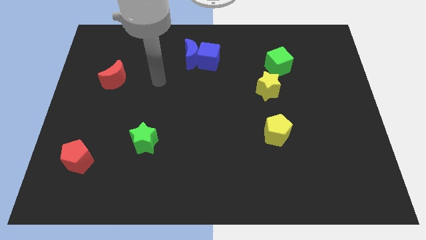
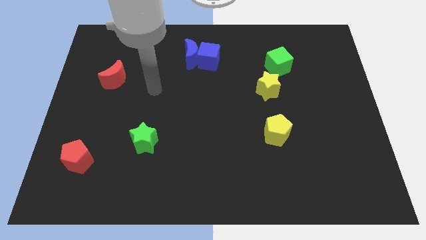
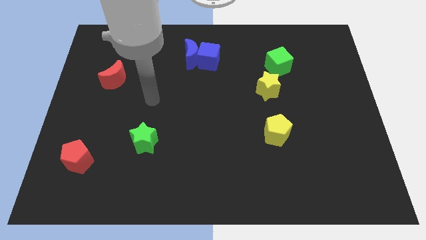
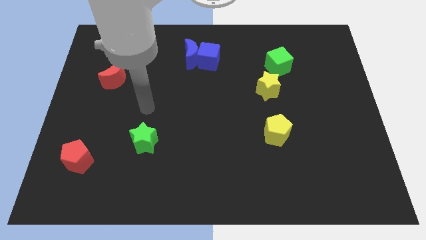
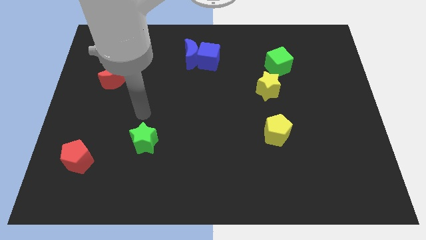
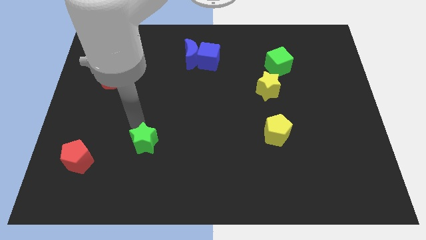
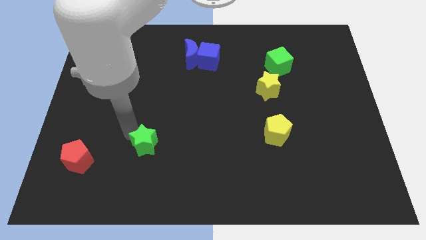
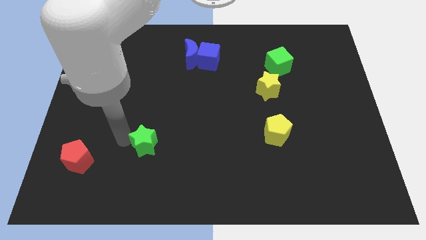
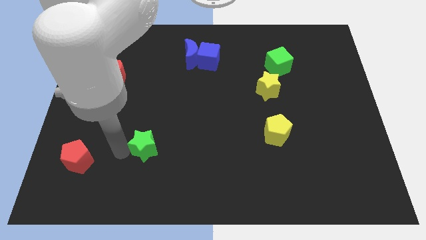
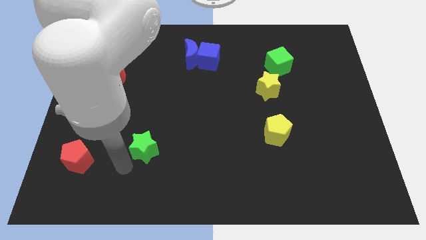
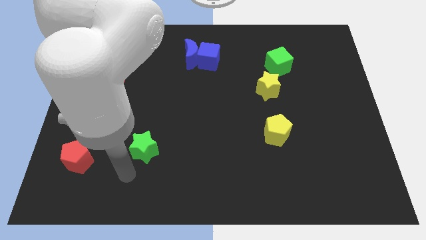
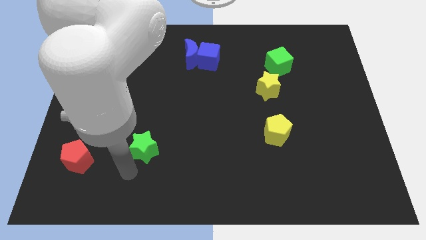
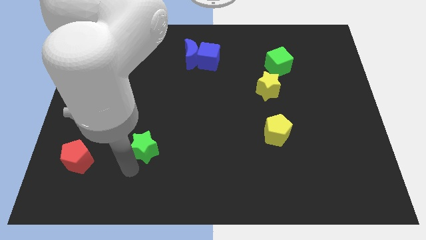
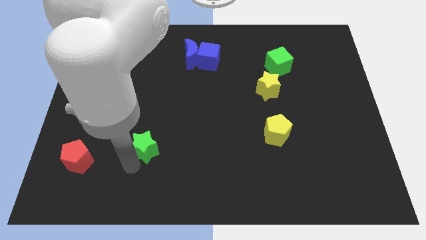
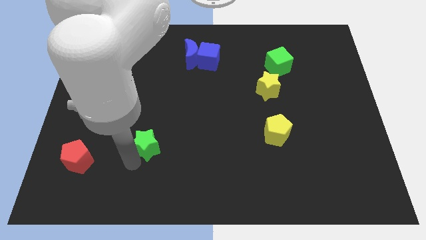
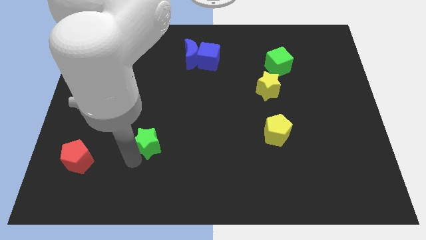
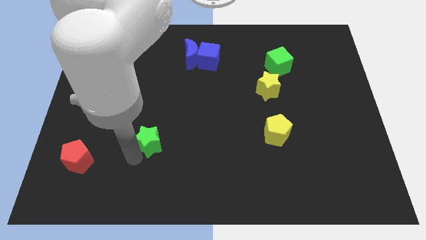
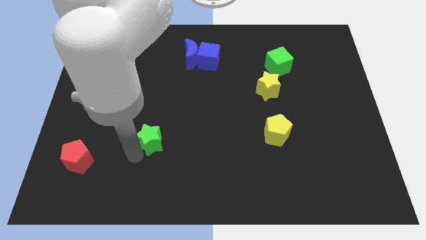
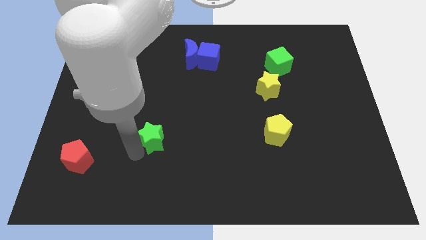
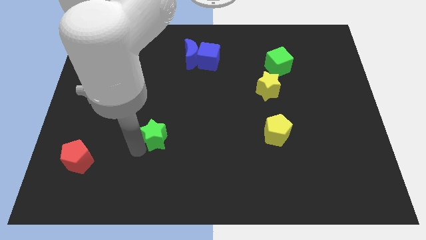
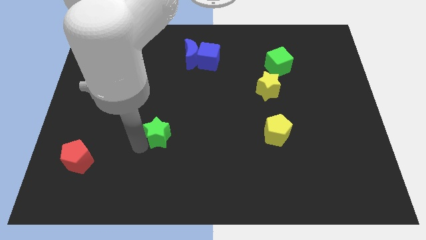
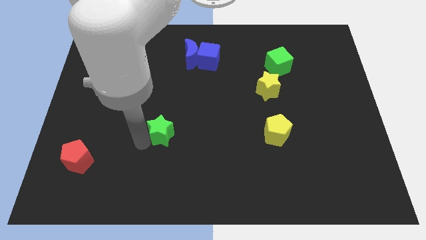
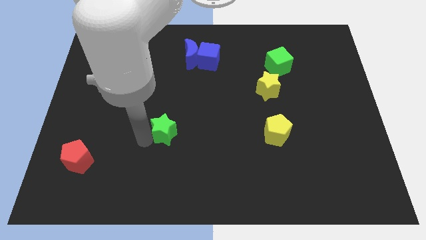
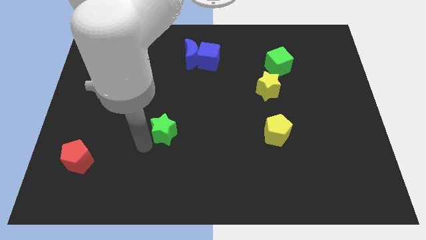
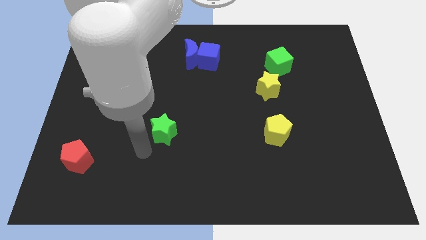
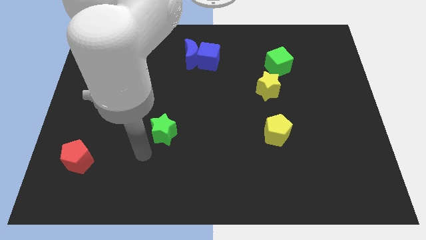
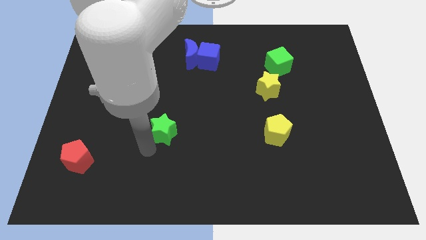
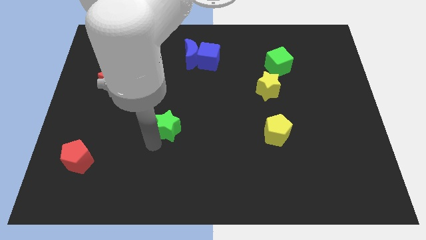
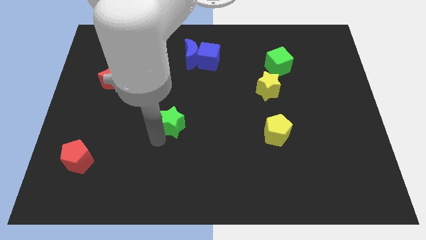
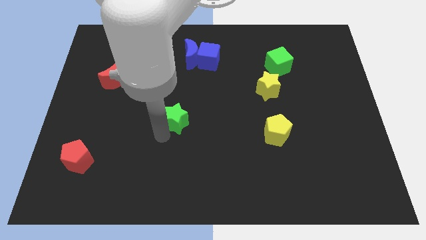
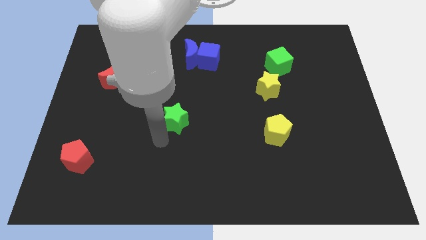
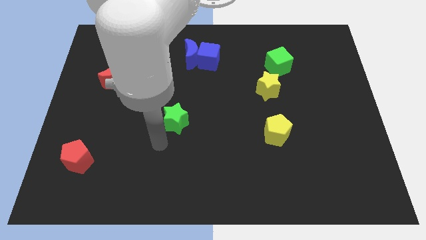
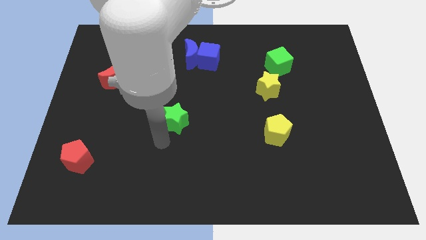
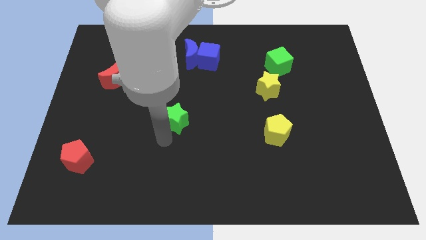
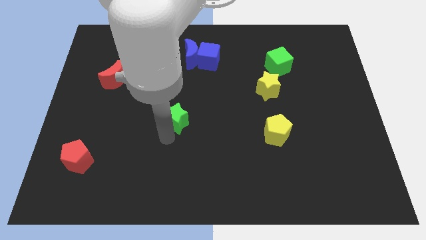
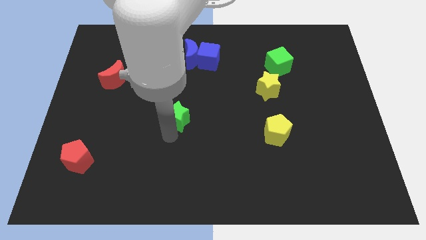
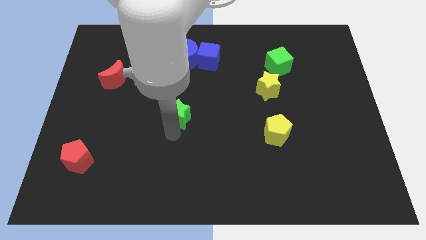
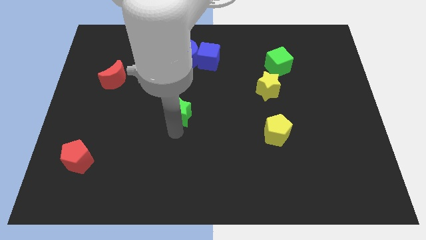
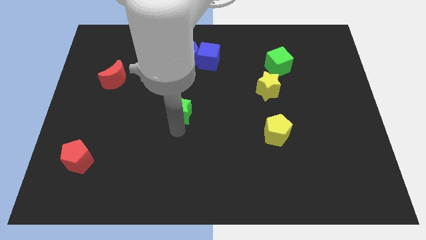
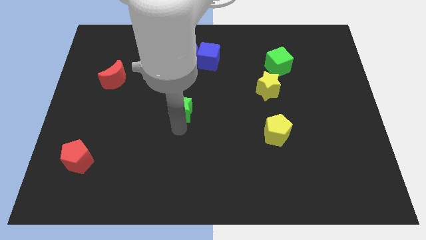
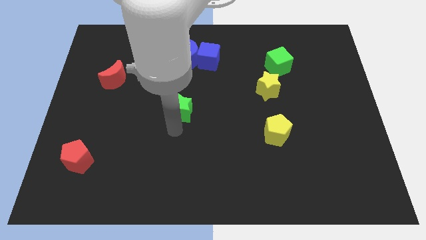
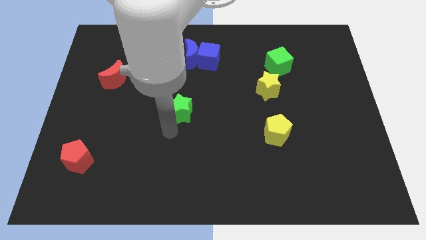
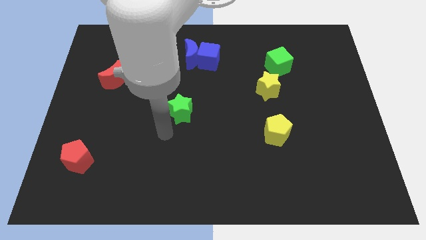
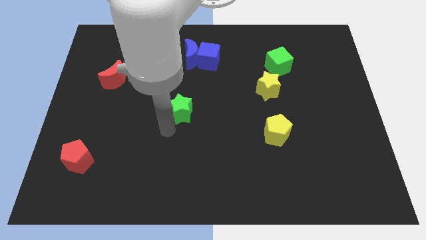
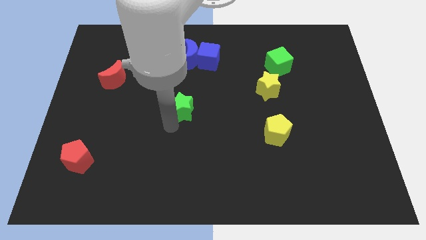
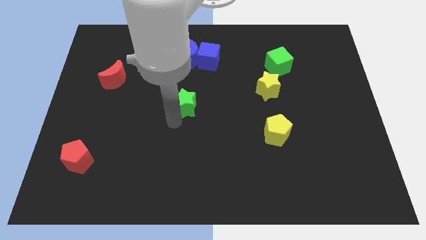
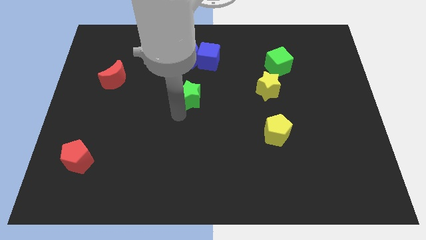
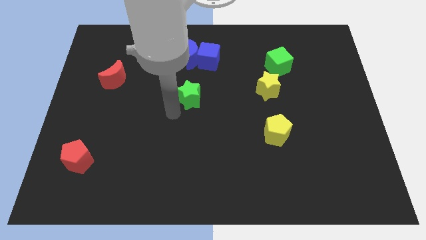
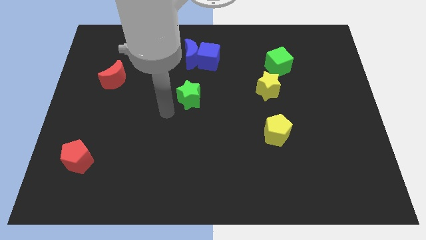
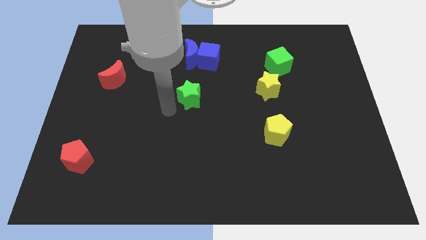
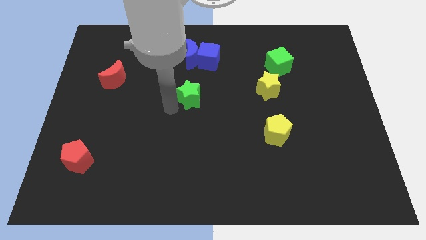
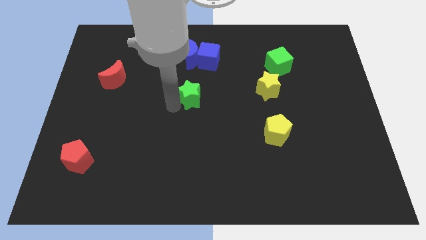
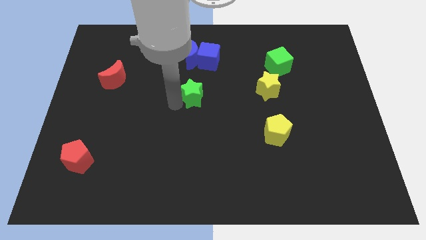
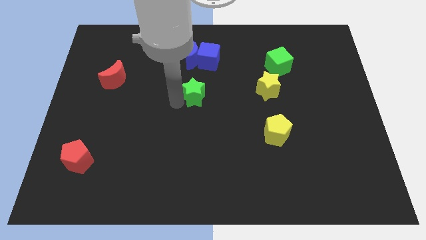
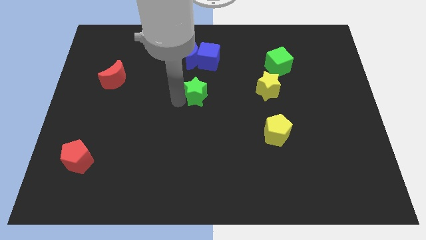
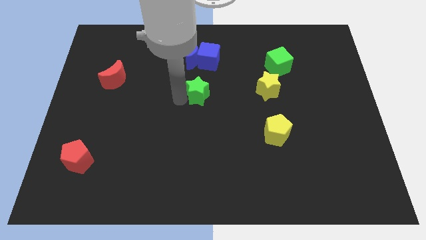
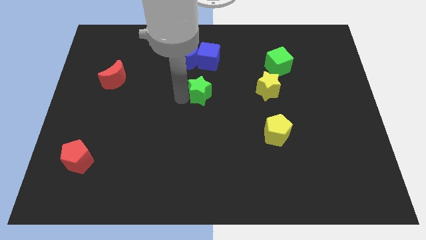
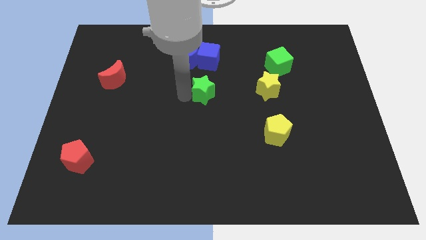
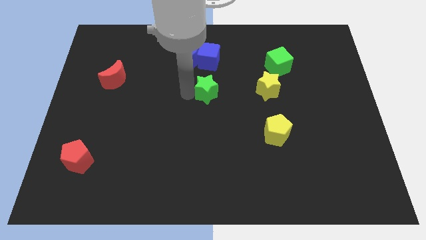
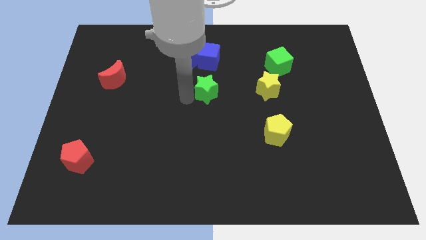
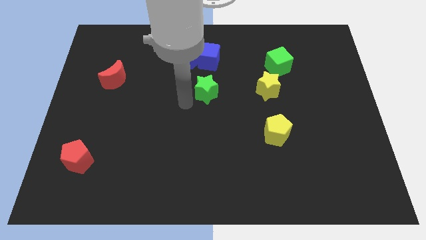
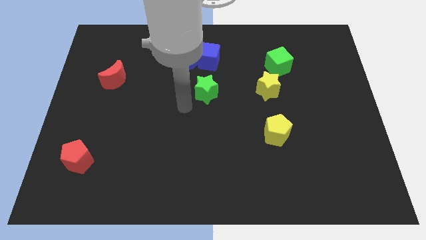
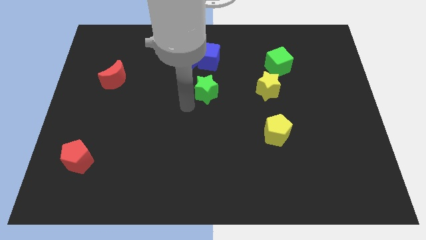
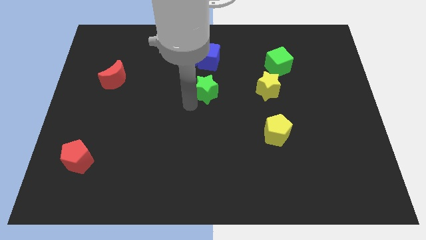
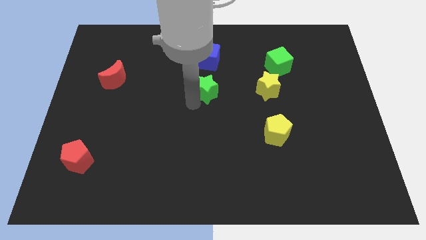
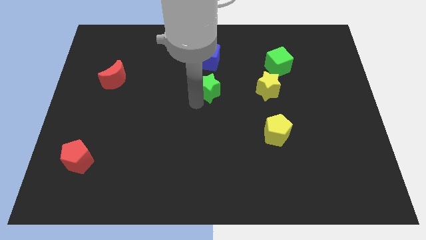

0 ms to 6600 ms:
move the green star diagonally upwards and right

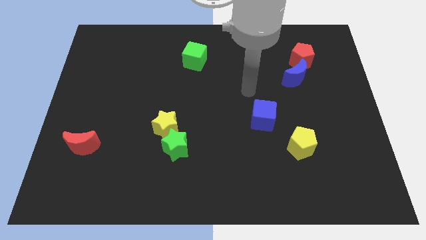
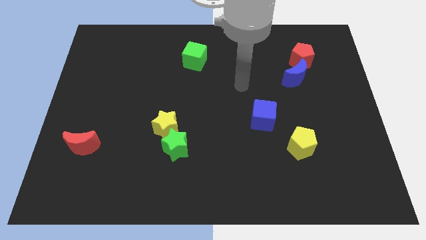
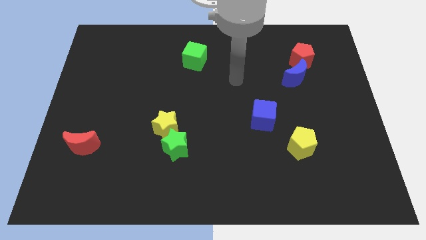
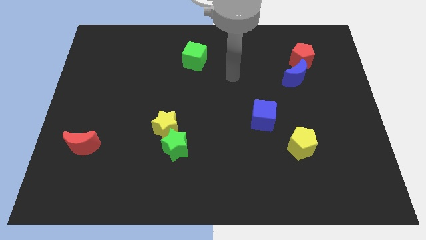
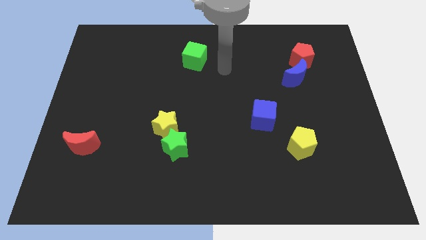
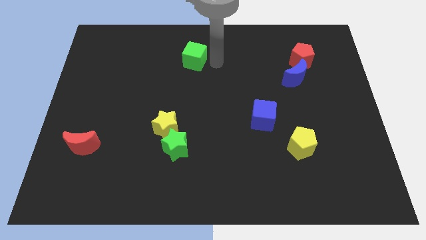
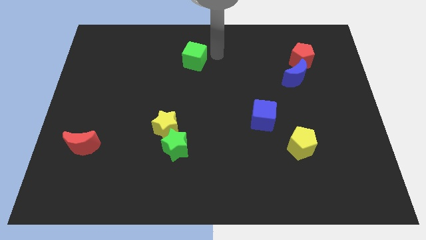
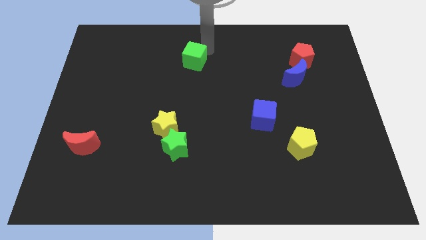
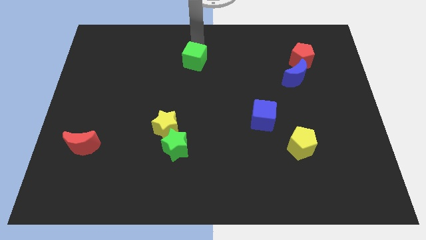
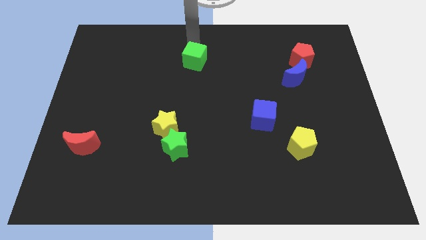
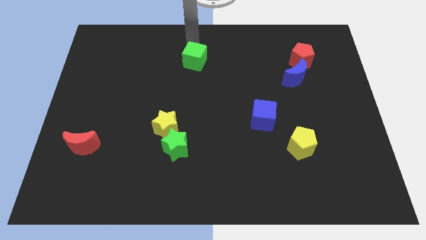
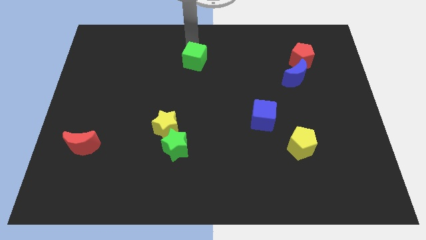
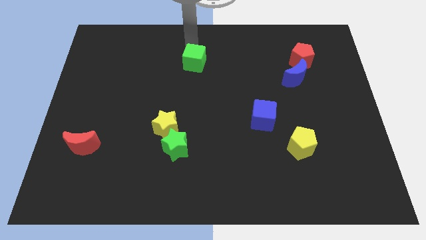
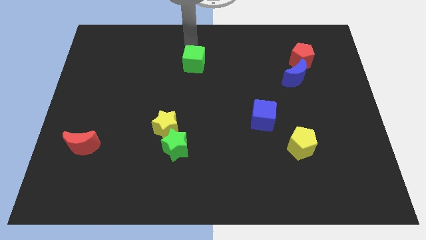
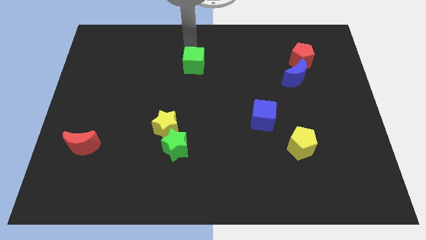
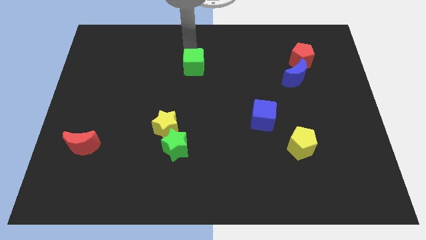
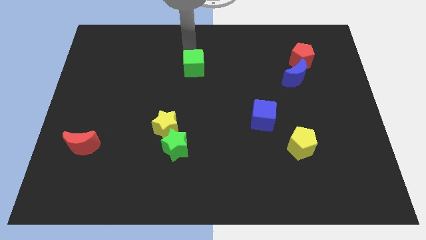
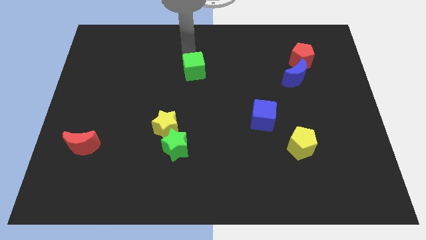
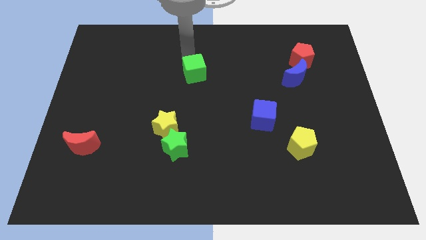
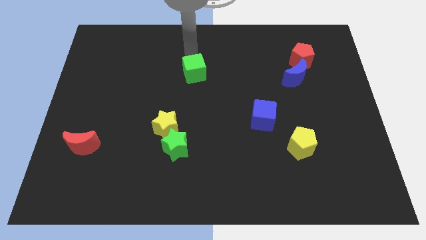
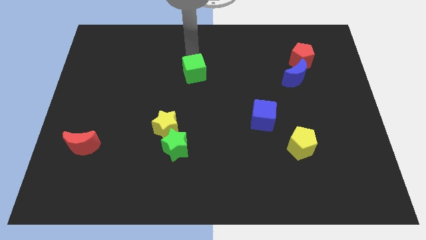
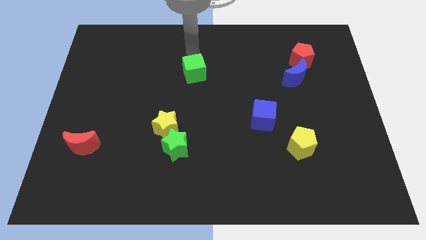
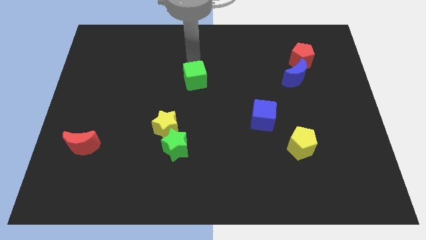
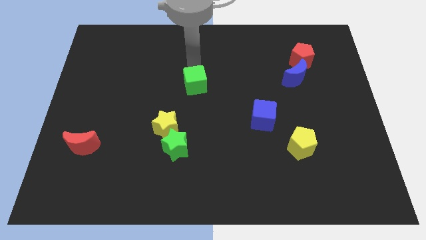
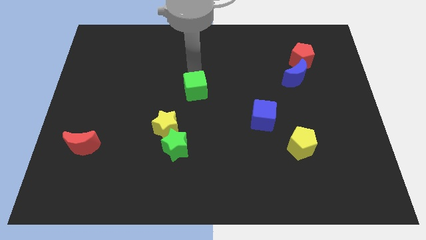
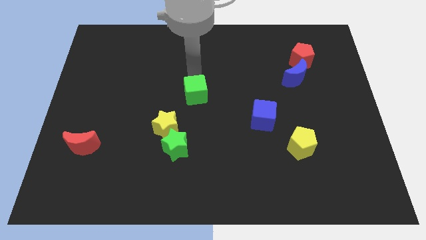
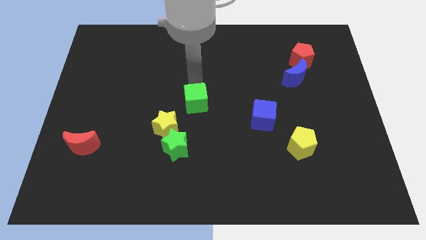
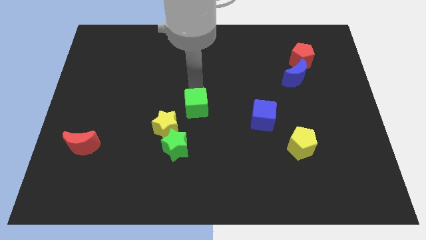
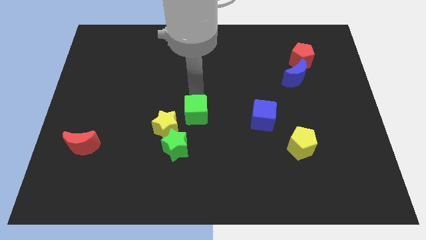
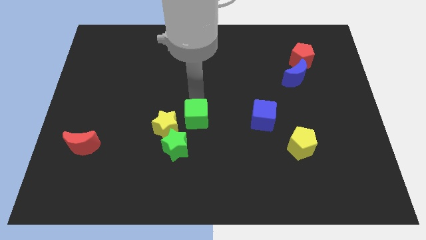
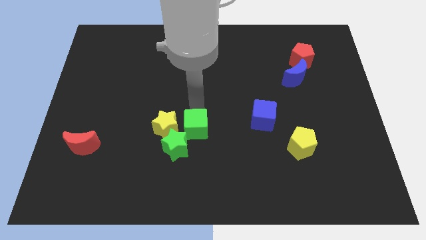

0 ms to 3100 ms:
push the green cube down
